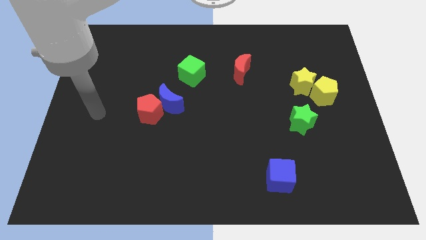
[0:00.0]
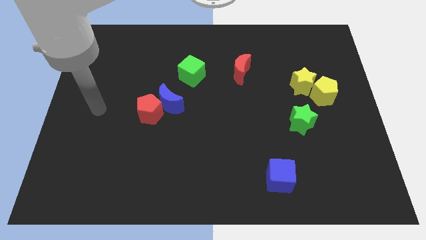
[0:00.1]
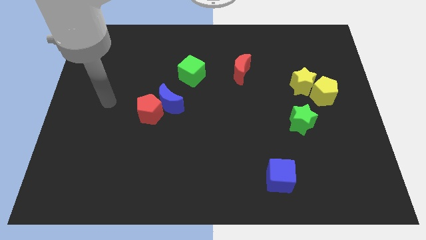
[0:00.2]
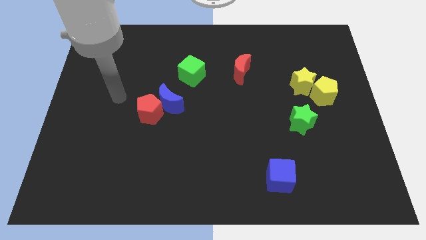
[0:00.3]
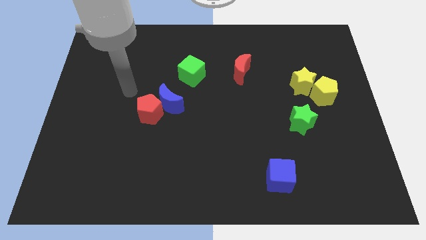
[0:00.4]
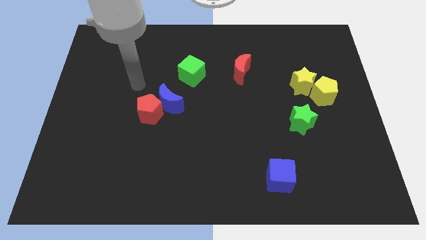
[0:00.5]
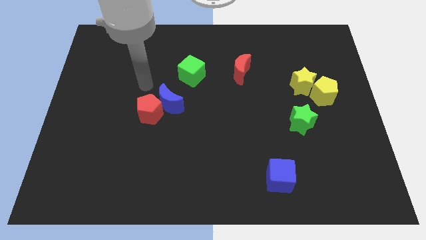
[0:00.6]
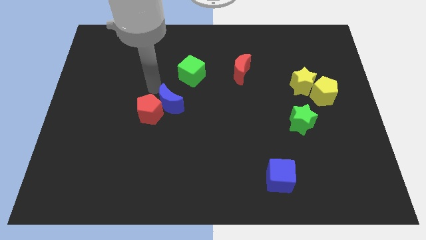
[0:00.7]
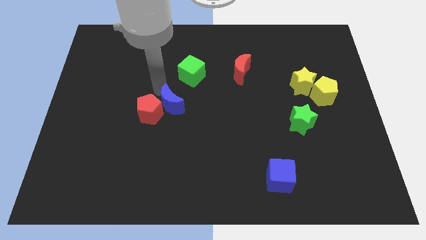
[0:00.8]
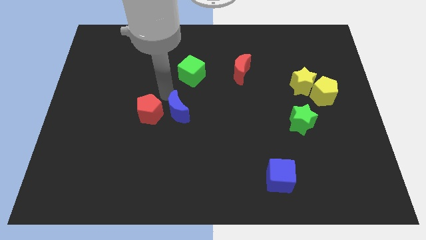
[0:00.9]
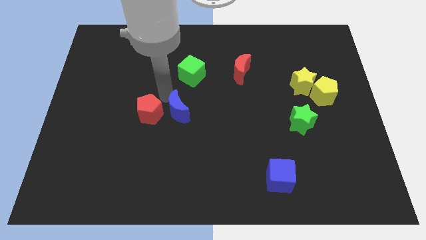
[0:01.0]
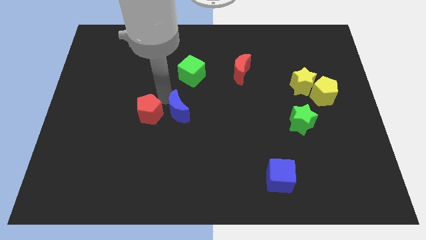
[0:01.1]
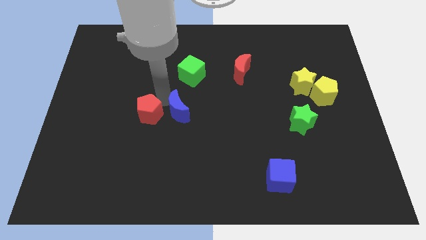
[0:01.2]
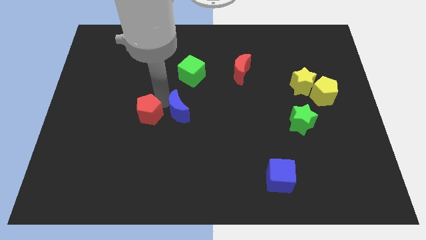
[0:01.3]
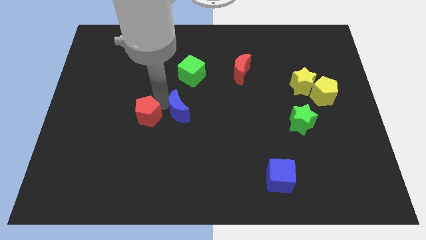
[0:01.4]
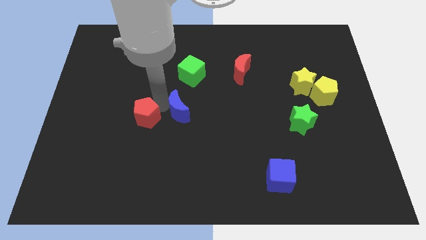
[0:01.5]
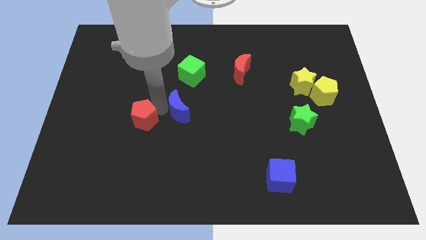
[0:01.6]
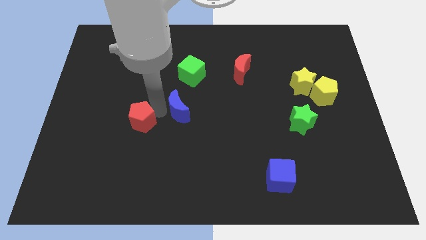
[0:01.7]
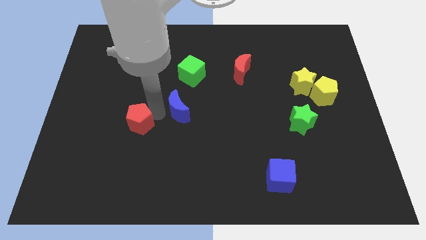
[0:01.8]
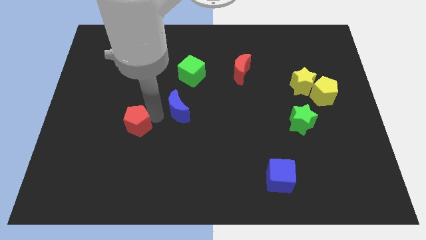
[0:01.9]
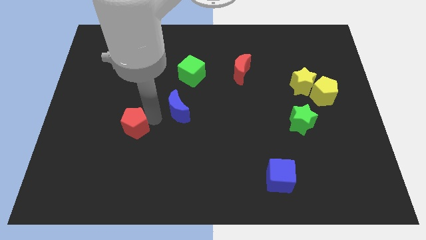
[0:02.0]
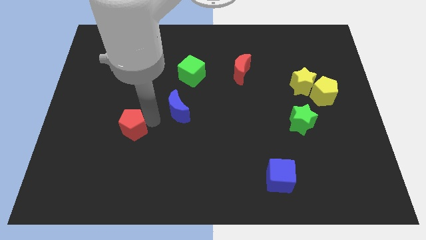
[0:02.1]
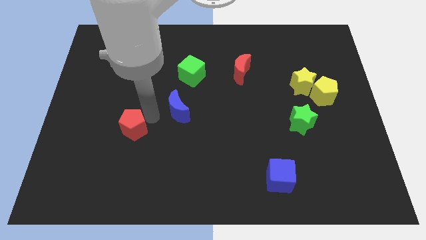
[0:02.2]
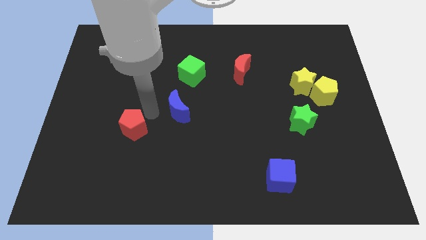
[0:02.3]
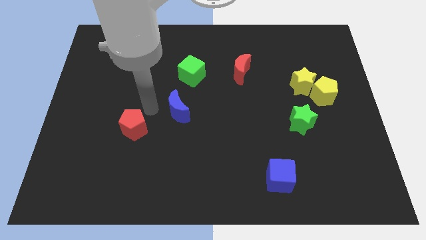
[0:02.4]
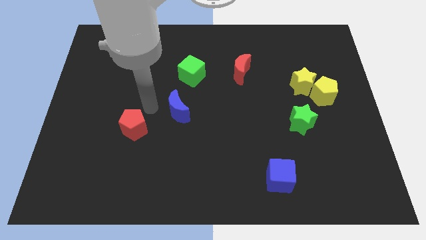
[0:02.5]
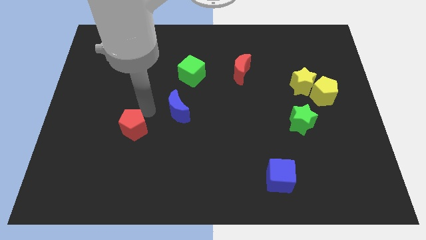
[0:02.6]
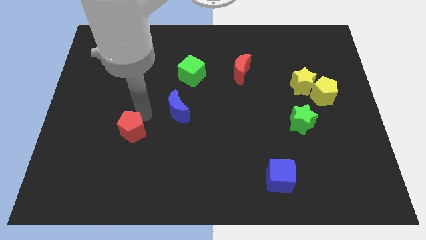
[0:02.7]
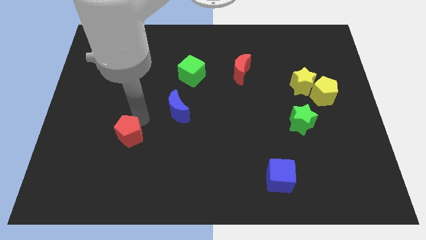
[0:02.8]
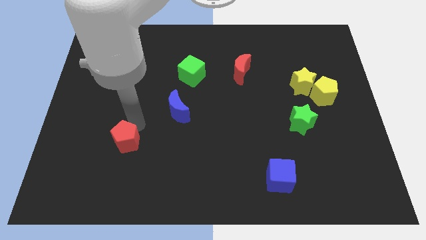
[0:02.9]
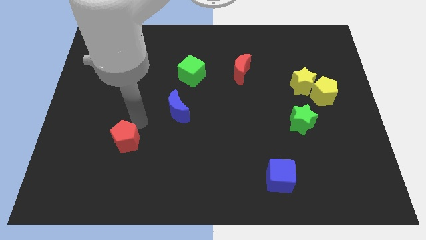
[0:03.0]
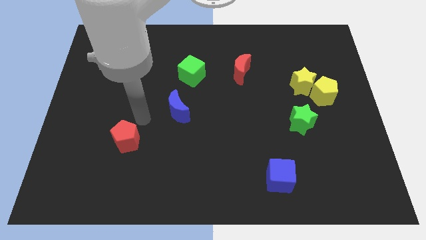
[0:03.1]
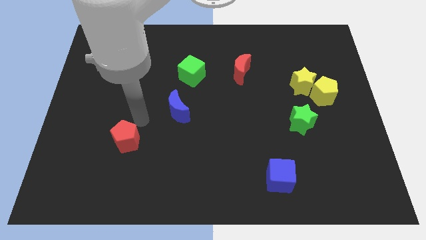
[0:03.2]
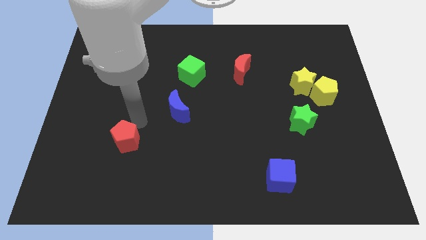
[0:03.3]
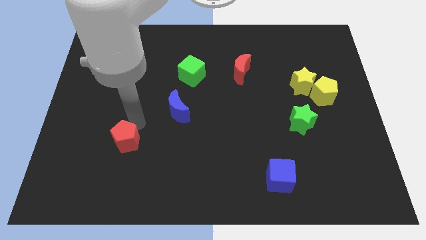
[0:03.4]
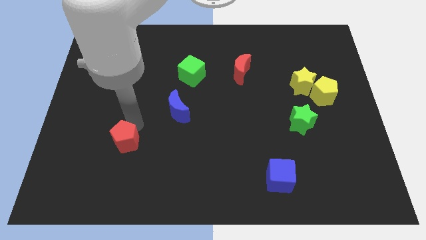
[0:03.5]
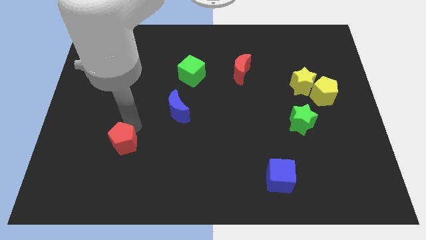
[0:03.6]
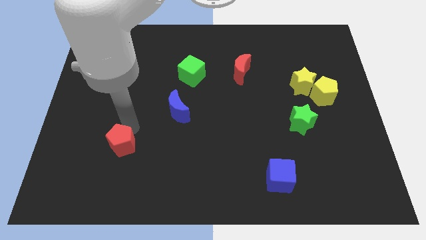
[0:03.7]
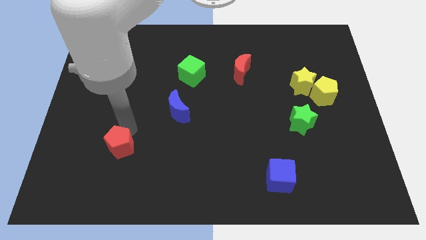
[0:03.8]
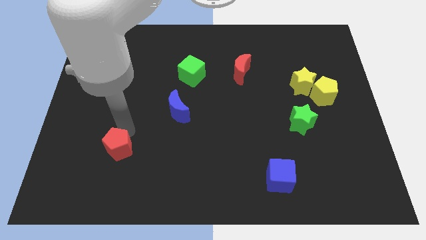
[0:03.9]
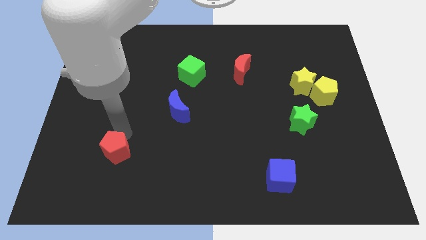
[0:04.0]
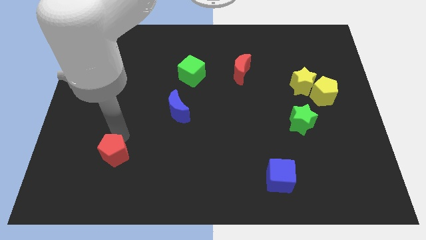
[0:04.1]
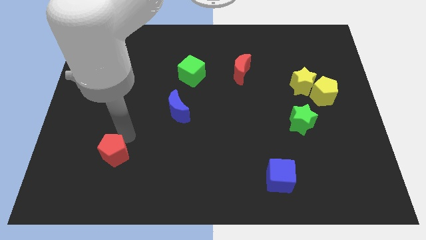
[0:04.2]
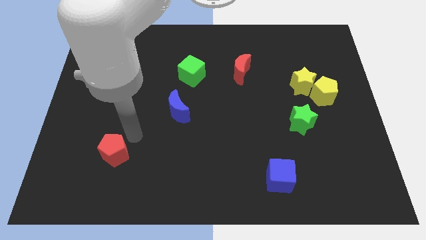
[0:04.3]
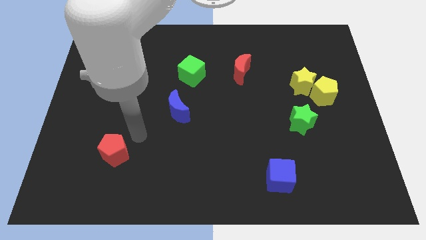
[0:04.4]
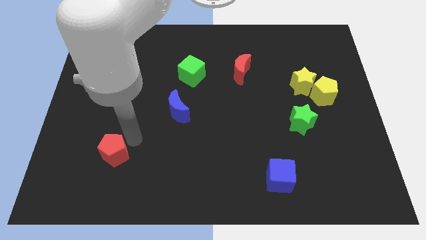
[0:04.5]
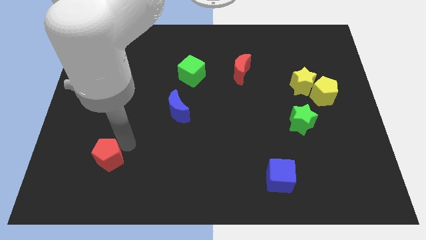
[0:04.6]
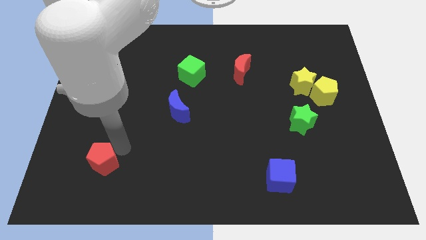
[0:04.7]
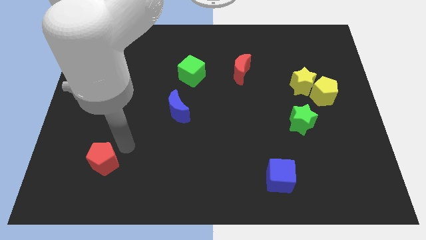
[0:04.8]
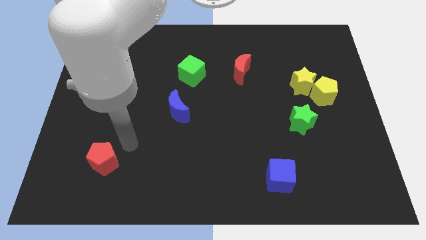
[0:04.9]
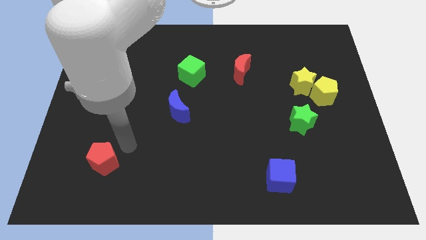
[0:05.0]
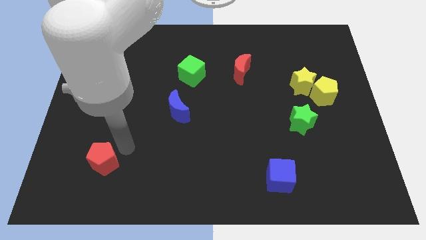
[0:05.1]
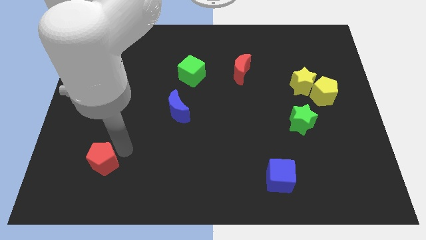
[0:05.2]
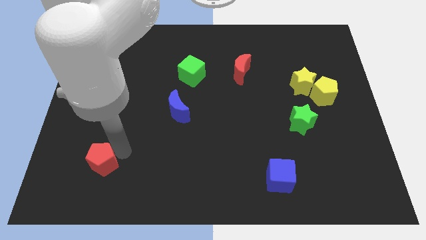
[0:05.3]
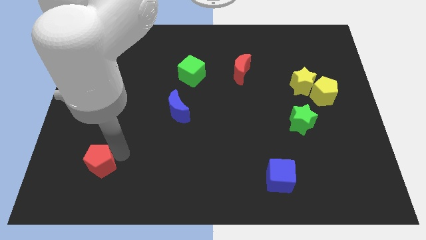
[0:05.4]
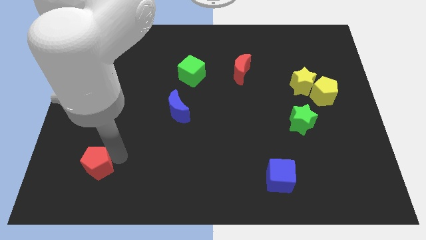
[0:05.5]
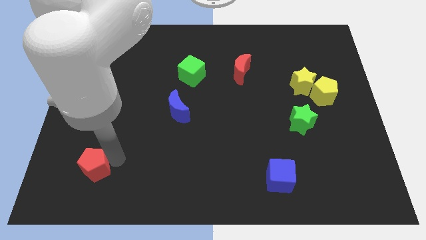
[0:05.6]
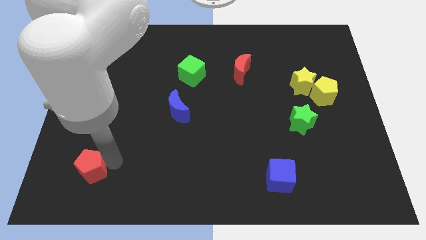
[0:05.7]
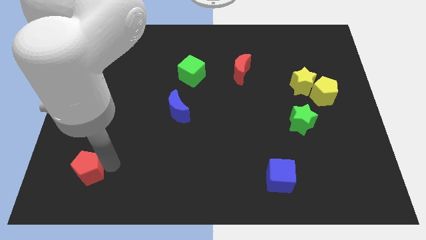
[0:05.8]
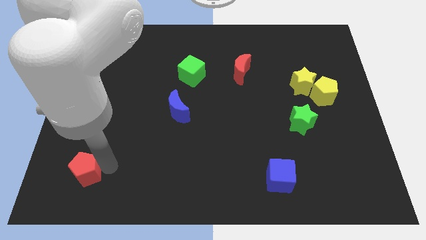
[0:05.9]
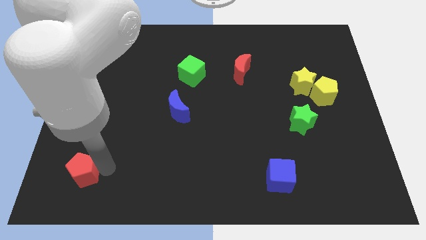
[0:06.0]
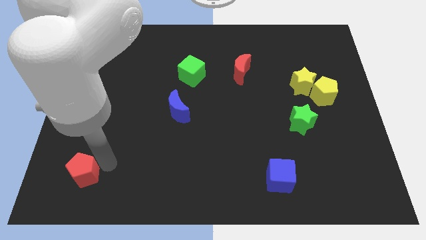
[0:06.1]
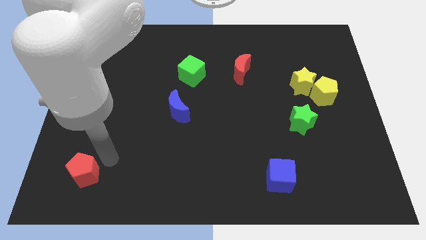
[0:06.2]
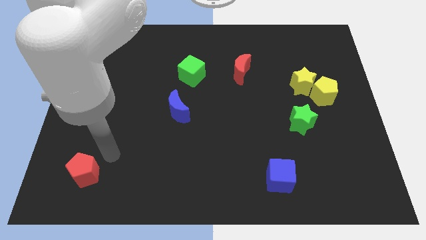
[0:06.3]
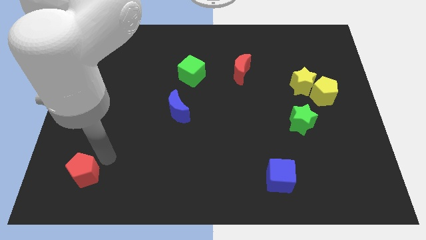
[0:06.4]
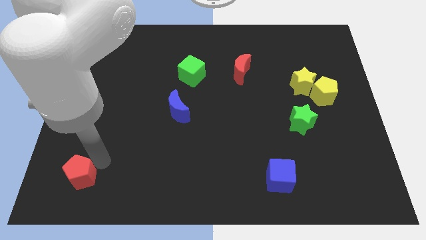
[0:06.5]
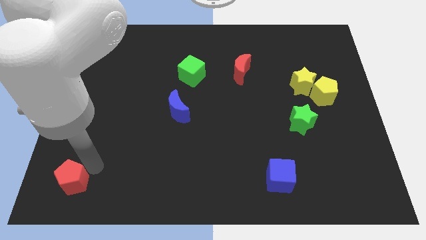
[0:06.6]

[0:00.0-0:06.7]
slide the red pentagon to the lower left corner

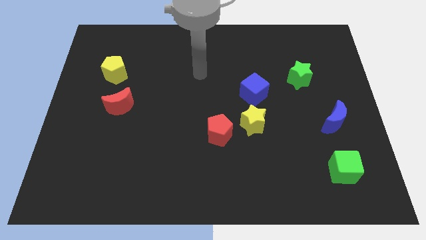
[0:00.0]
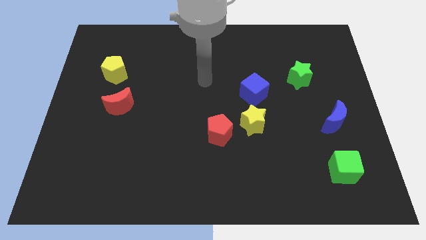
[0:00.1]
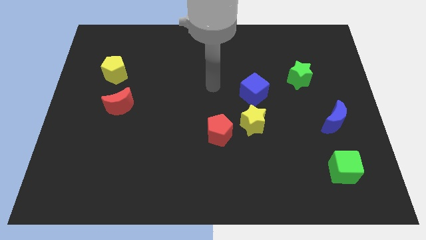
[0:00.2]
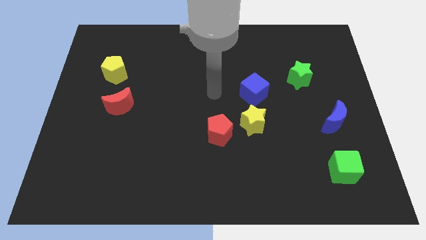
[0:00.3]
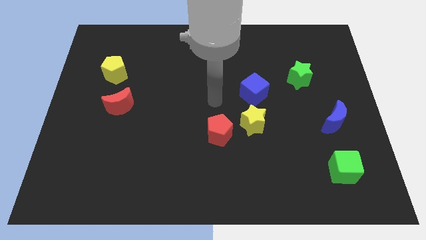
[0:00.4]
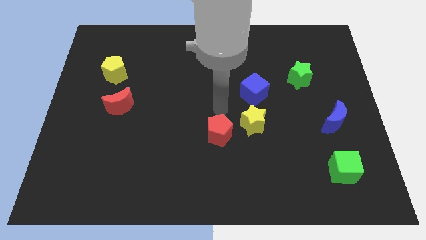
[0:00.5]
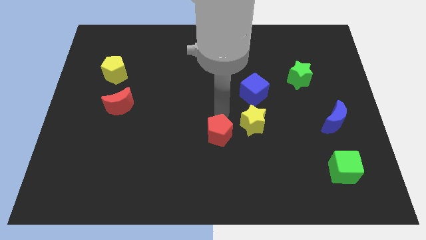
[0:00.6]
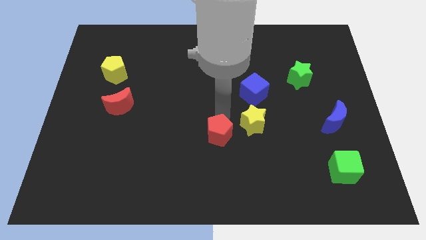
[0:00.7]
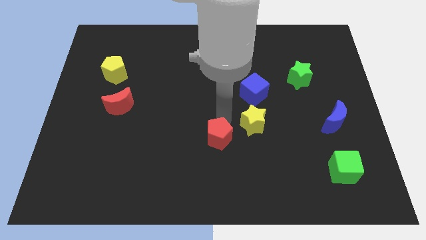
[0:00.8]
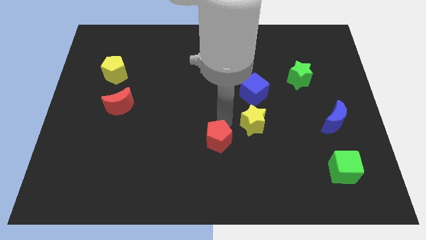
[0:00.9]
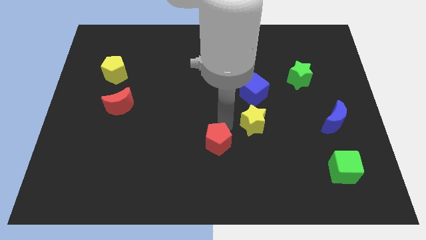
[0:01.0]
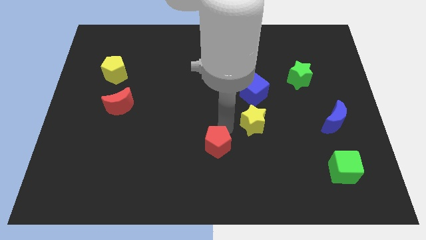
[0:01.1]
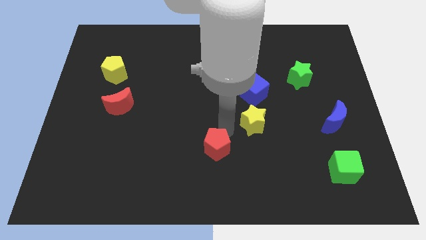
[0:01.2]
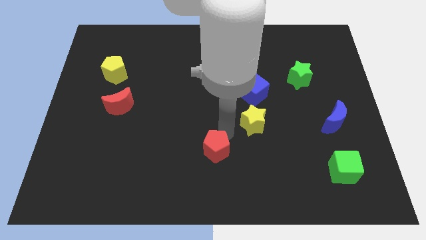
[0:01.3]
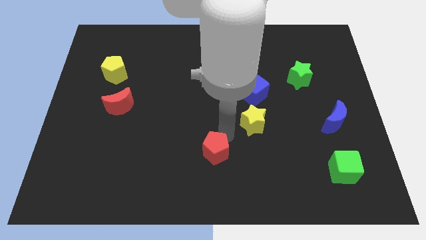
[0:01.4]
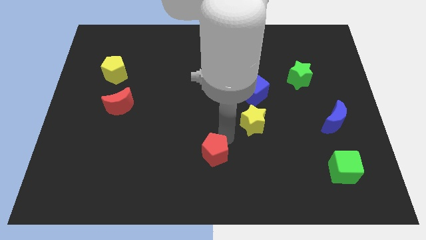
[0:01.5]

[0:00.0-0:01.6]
push the red pentagon to the bottom
